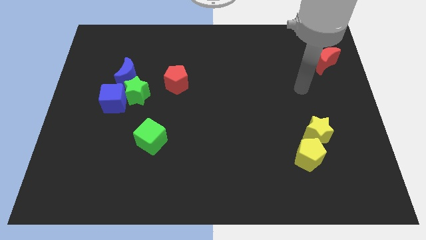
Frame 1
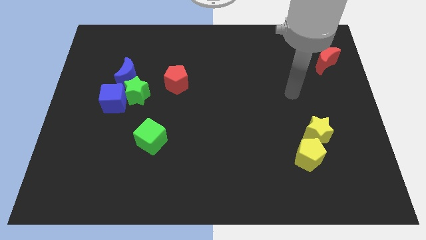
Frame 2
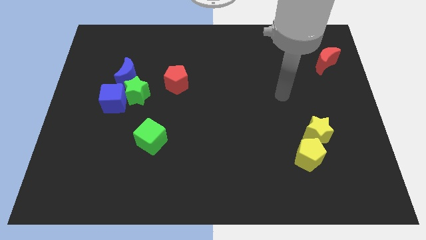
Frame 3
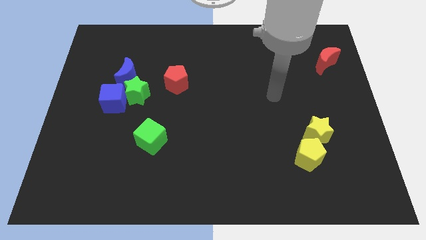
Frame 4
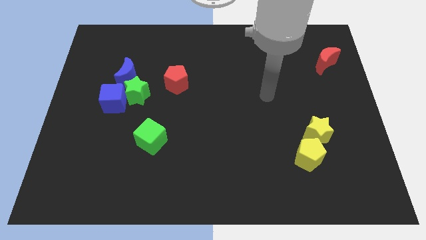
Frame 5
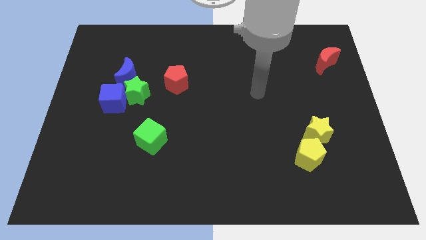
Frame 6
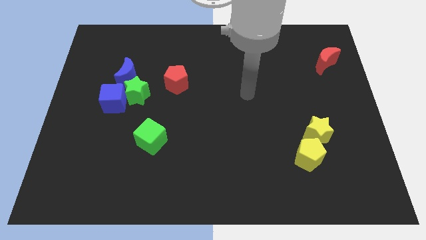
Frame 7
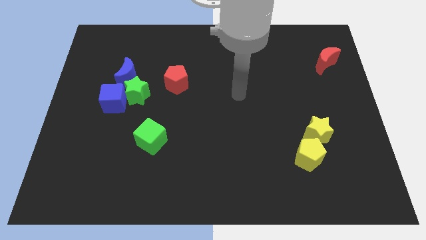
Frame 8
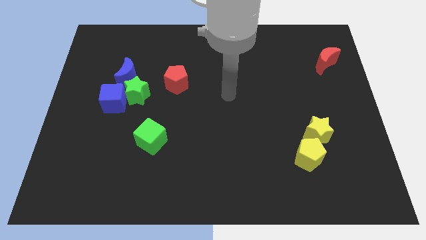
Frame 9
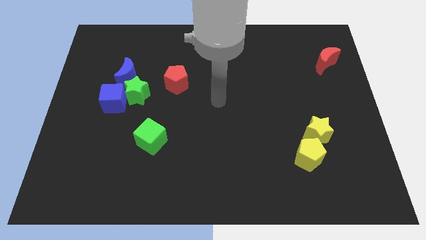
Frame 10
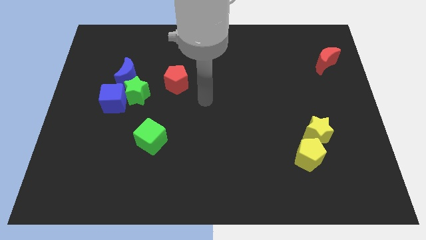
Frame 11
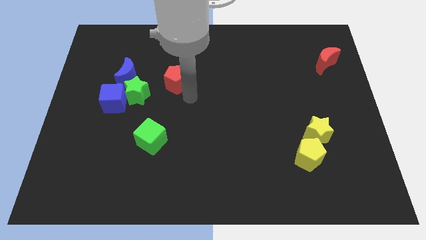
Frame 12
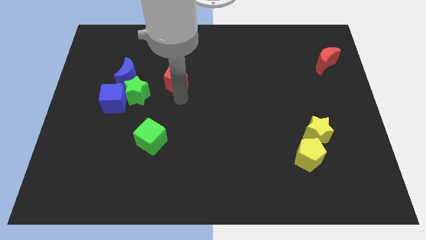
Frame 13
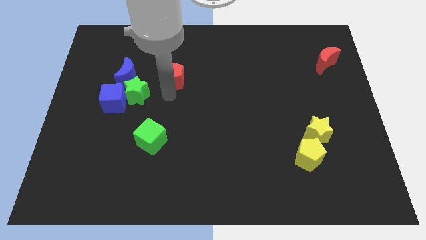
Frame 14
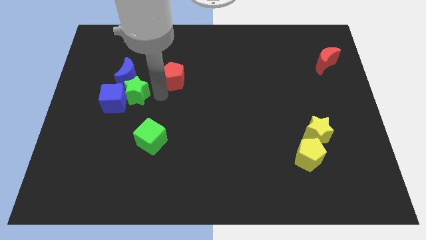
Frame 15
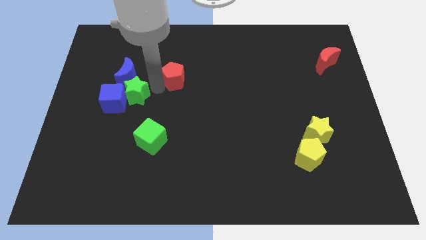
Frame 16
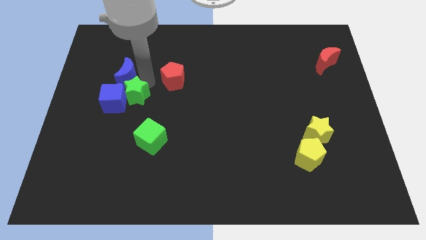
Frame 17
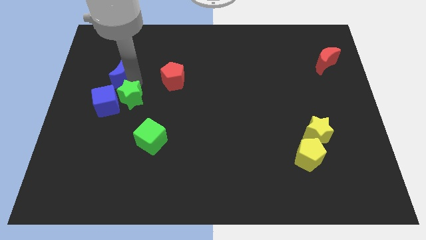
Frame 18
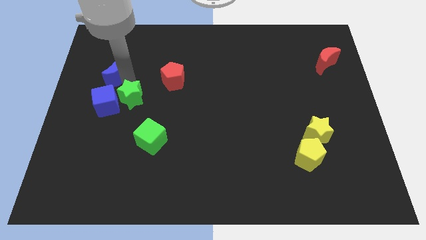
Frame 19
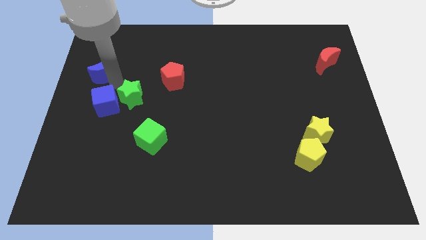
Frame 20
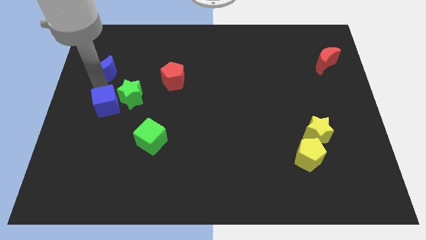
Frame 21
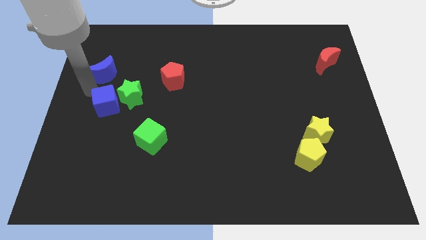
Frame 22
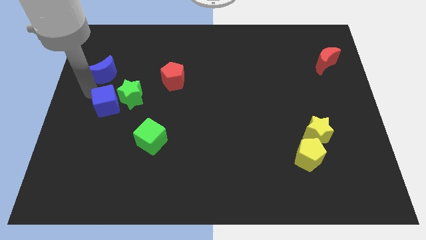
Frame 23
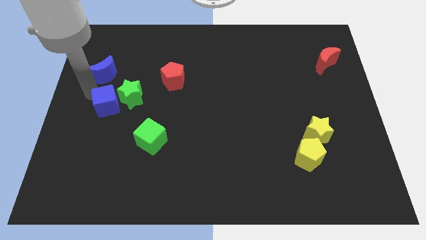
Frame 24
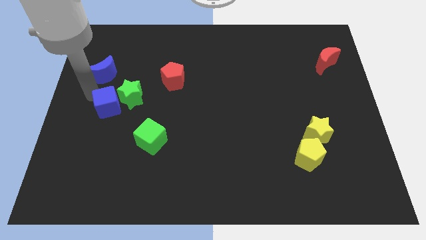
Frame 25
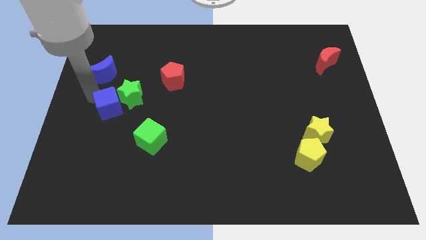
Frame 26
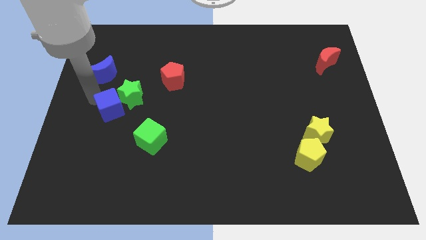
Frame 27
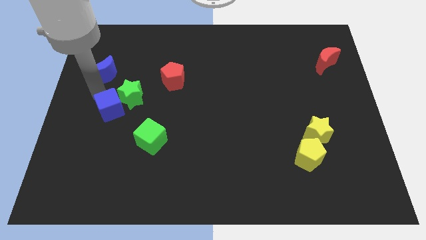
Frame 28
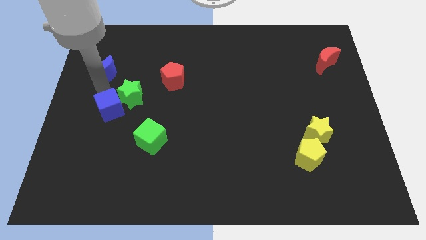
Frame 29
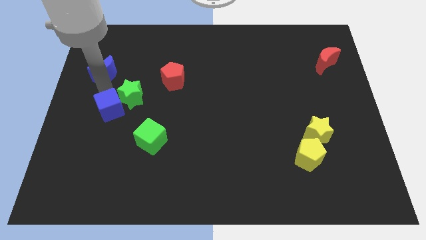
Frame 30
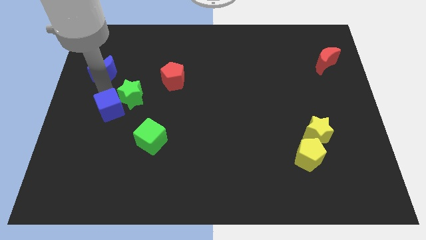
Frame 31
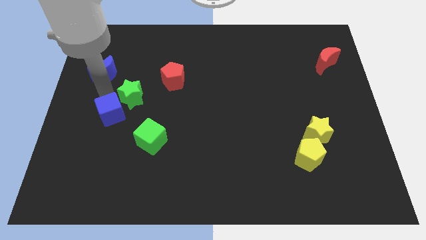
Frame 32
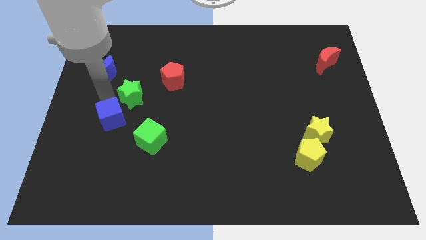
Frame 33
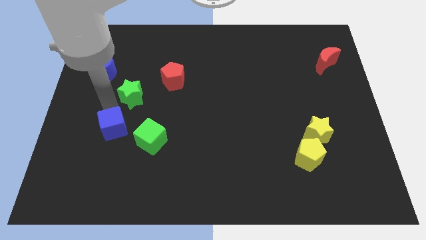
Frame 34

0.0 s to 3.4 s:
slightly push the blue cube downwards

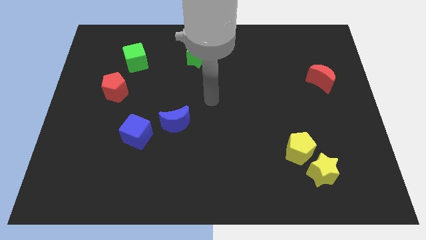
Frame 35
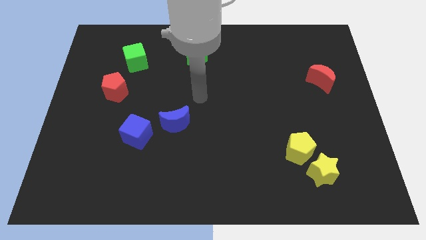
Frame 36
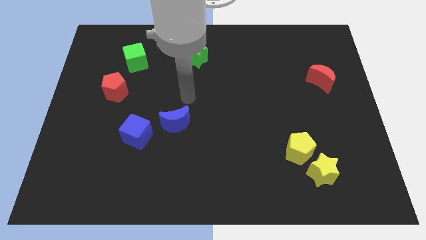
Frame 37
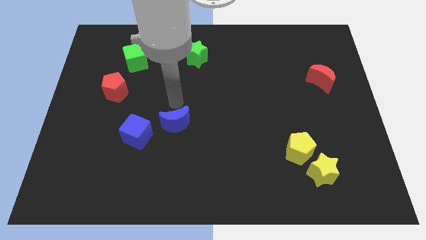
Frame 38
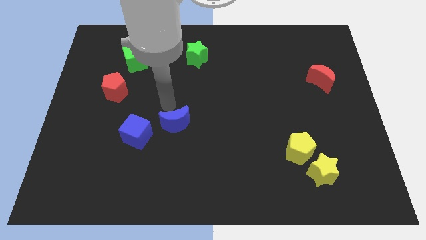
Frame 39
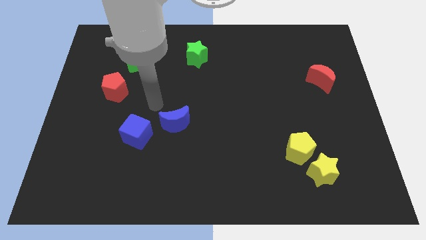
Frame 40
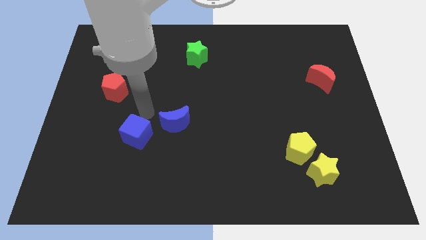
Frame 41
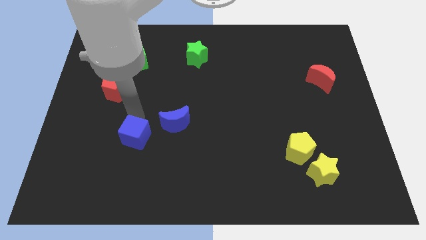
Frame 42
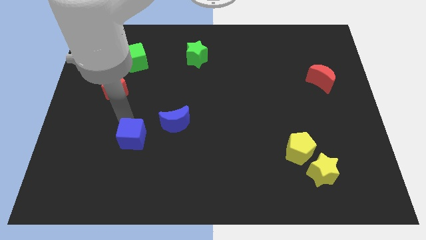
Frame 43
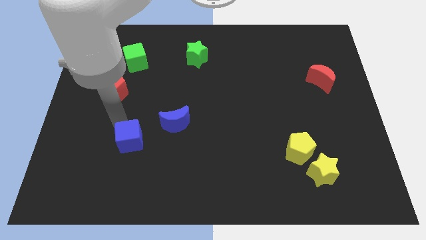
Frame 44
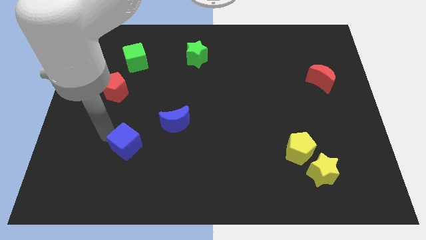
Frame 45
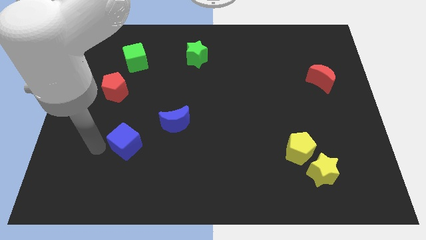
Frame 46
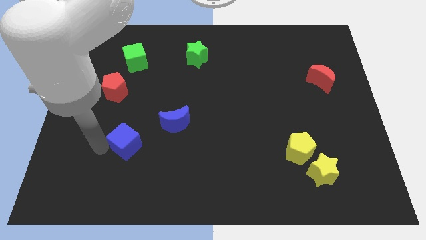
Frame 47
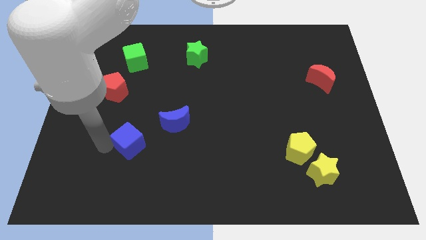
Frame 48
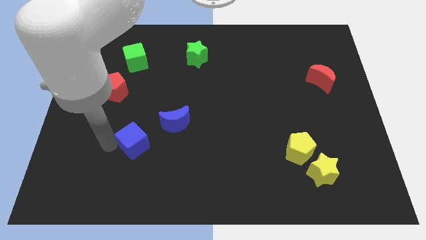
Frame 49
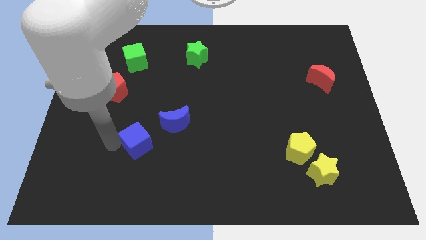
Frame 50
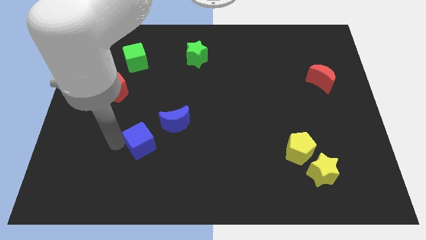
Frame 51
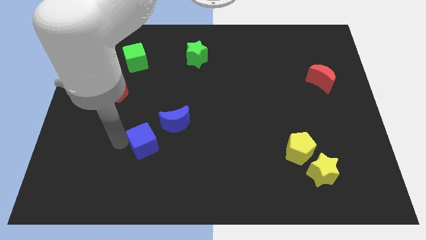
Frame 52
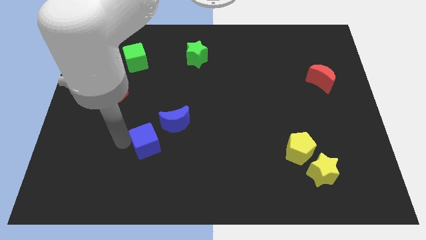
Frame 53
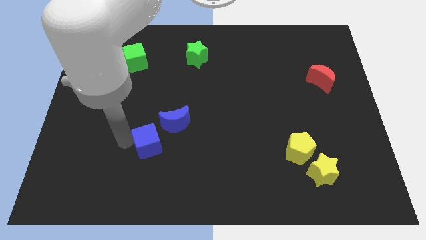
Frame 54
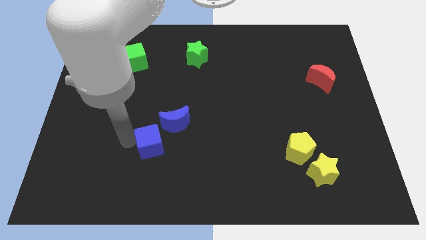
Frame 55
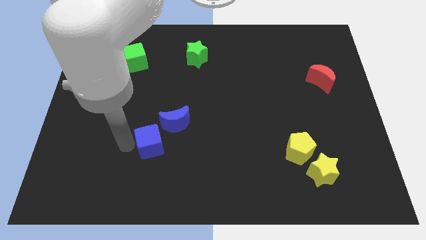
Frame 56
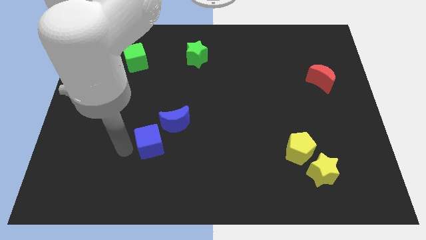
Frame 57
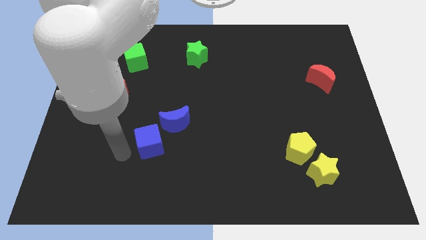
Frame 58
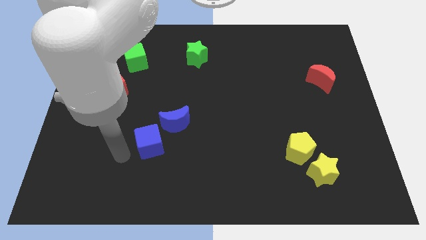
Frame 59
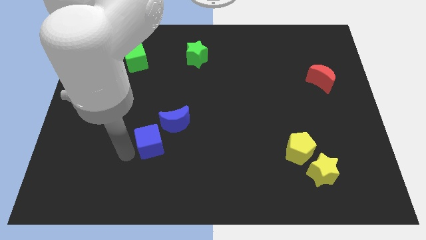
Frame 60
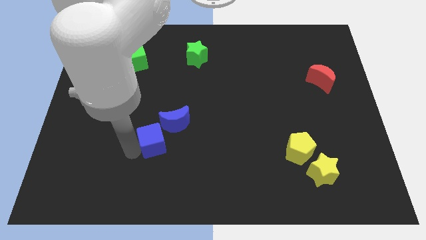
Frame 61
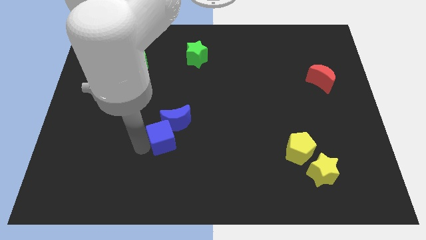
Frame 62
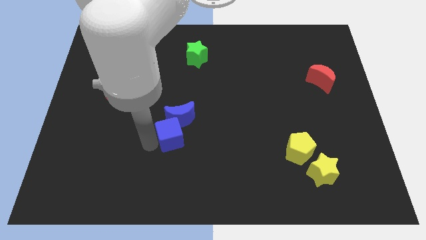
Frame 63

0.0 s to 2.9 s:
slide the blue cube a little right

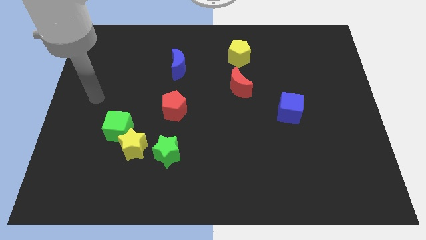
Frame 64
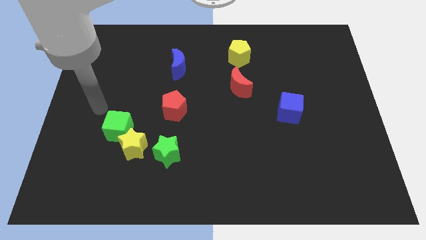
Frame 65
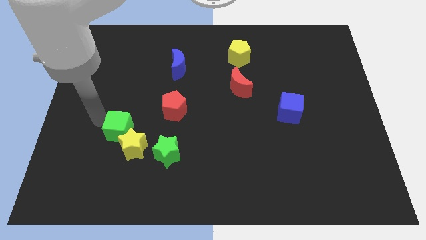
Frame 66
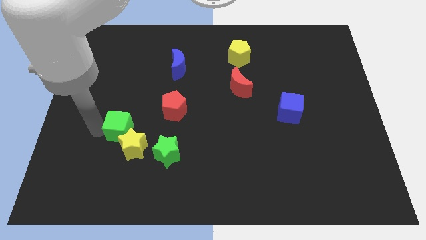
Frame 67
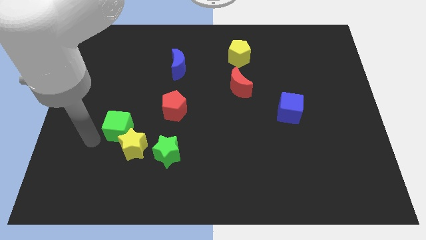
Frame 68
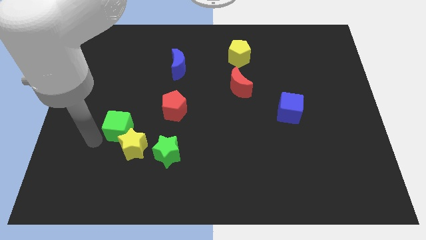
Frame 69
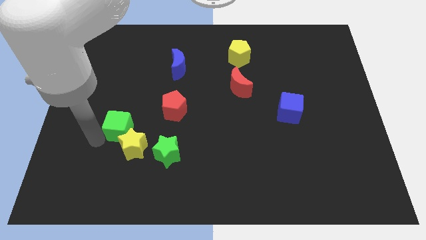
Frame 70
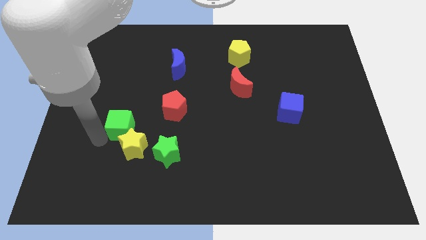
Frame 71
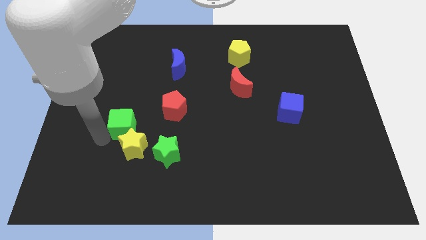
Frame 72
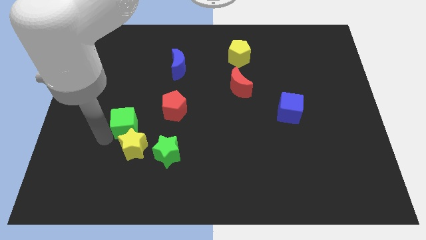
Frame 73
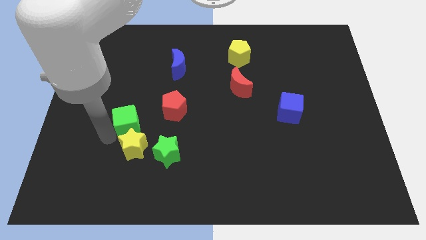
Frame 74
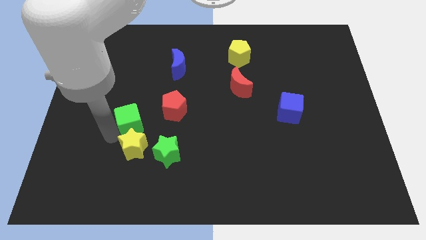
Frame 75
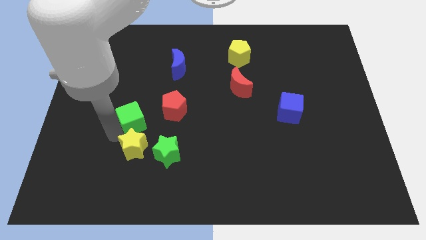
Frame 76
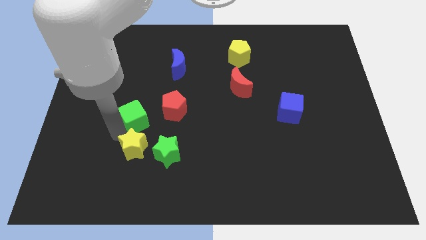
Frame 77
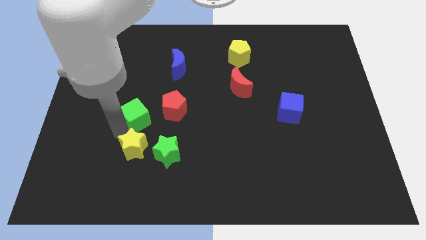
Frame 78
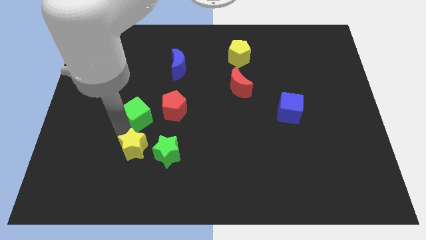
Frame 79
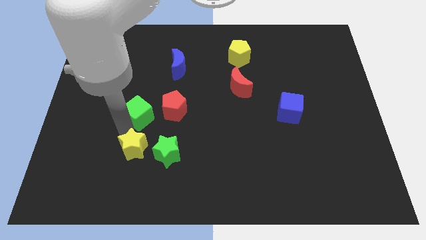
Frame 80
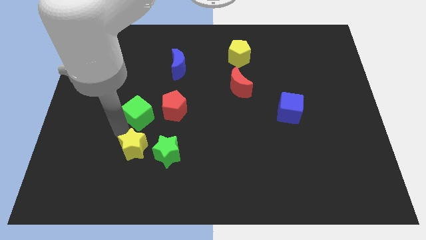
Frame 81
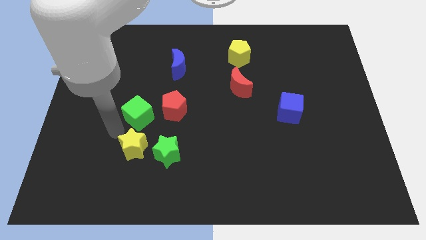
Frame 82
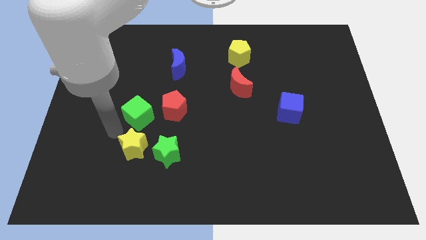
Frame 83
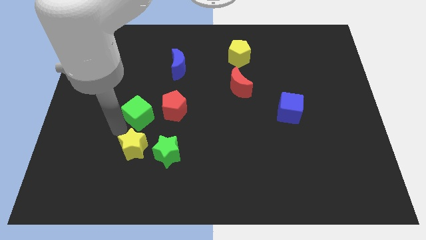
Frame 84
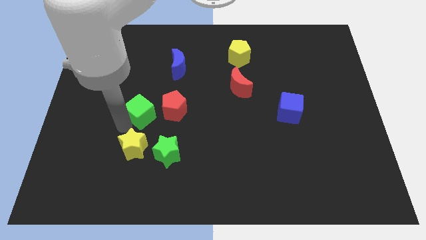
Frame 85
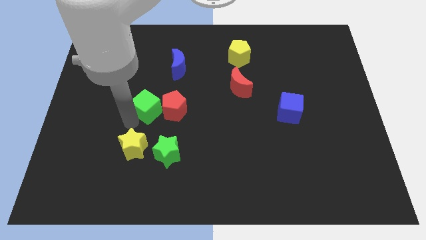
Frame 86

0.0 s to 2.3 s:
slightly slide the green cube up and right diagonally
